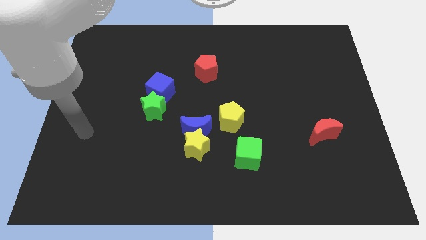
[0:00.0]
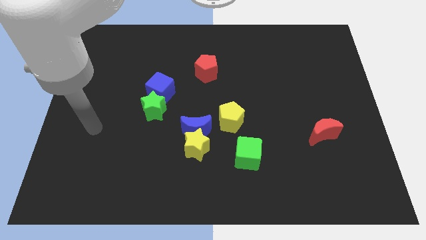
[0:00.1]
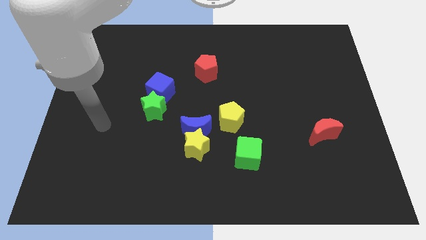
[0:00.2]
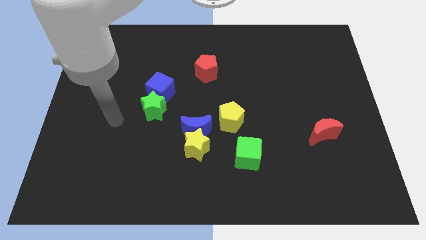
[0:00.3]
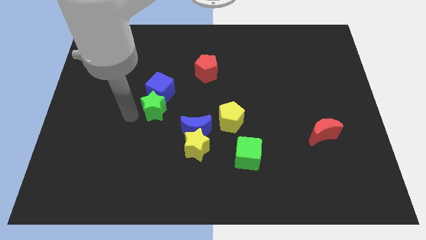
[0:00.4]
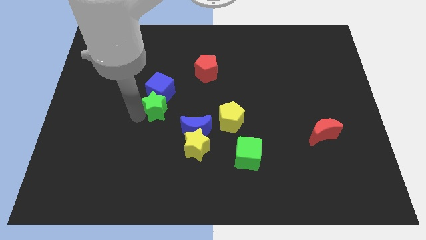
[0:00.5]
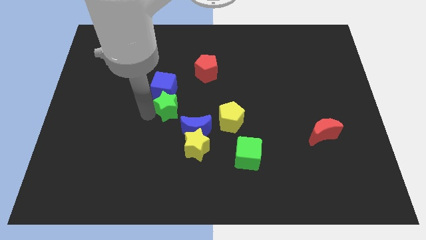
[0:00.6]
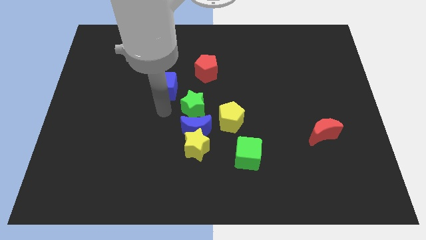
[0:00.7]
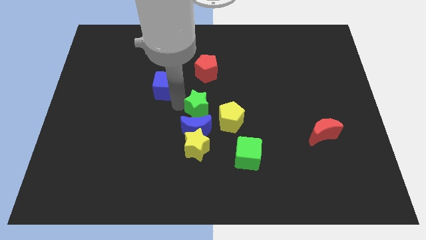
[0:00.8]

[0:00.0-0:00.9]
pull the blue cube apart from the green star

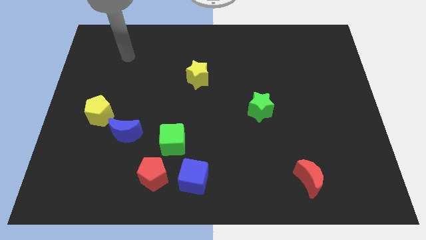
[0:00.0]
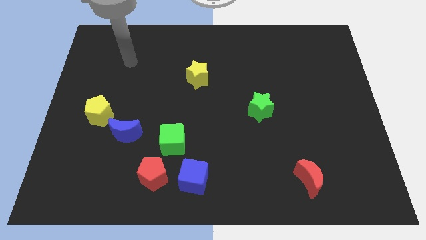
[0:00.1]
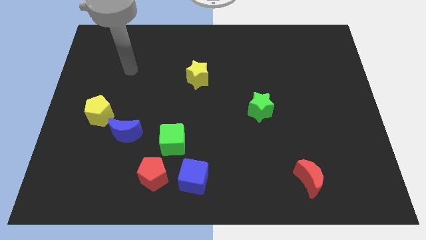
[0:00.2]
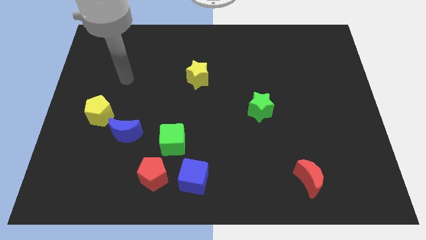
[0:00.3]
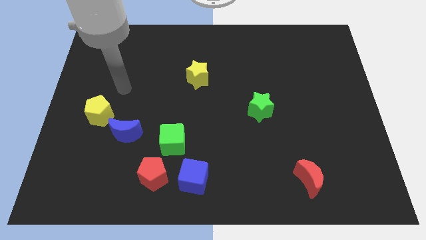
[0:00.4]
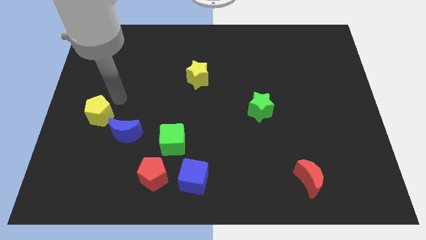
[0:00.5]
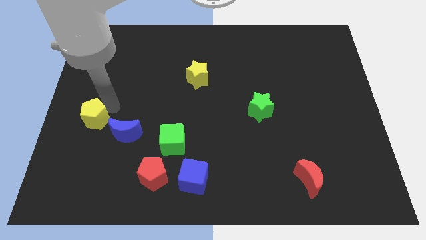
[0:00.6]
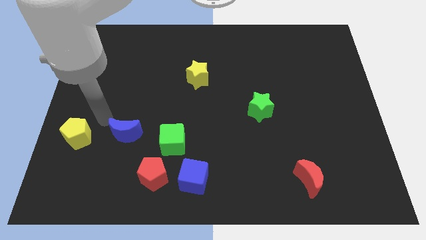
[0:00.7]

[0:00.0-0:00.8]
move the blue moon away from the yellow pentagon

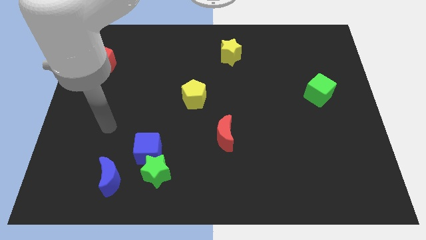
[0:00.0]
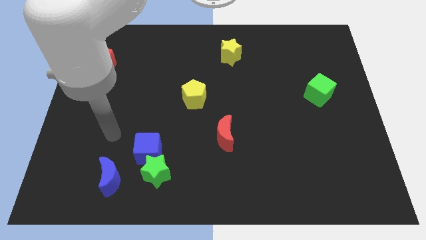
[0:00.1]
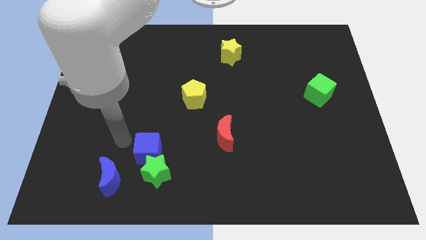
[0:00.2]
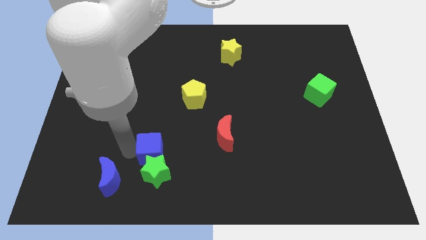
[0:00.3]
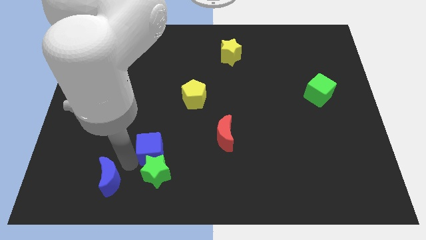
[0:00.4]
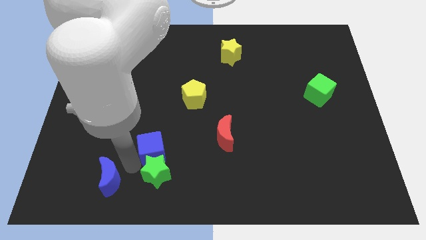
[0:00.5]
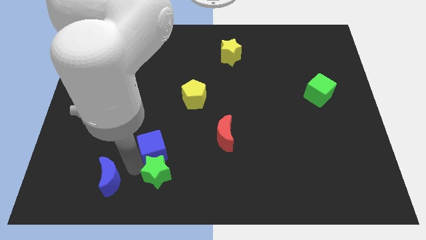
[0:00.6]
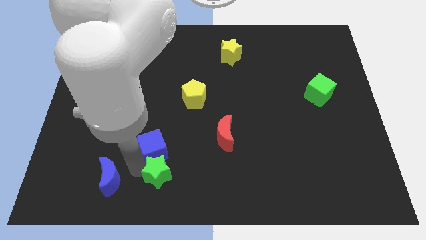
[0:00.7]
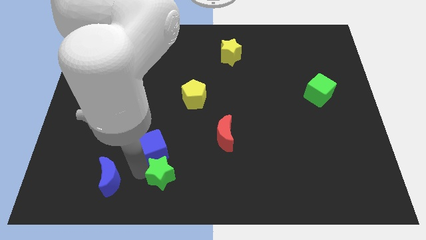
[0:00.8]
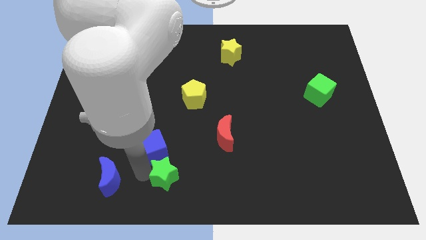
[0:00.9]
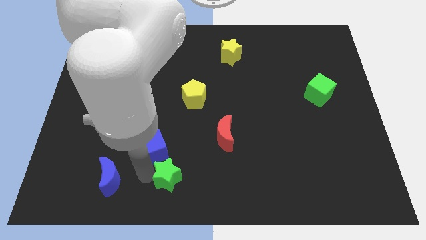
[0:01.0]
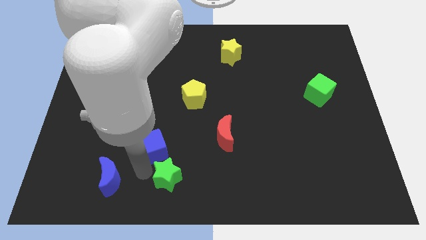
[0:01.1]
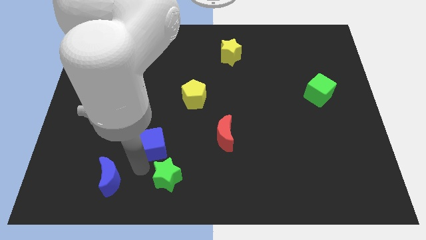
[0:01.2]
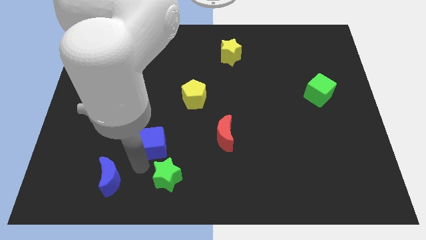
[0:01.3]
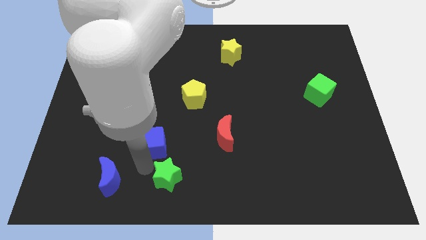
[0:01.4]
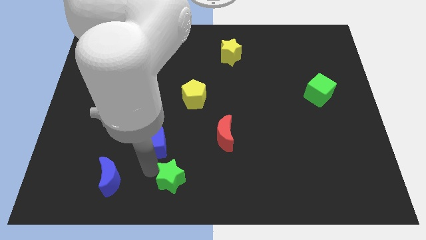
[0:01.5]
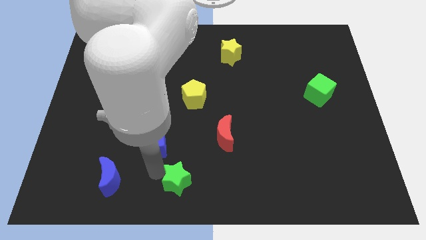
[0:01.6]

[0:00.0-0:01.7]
separate the green star from the blue cube and blue moon

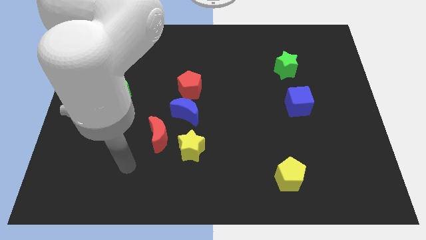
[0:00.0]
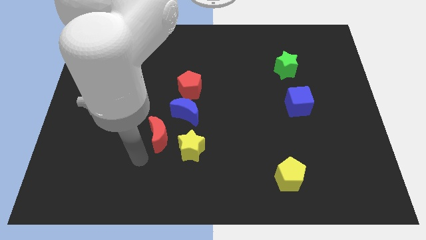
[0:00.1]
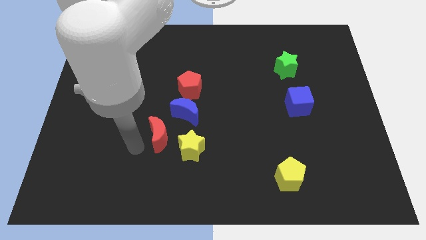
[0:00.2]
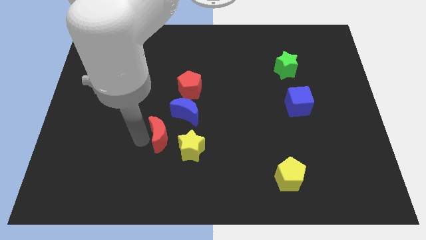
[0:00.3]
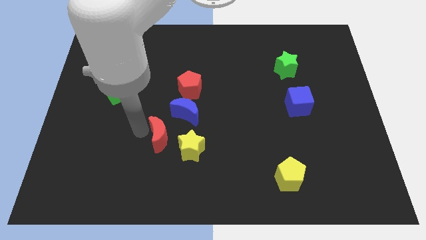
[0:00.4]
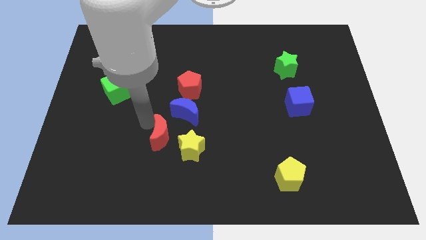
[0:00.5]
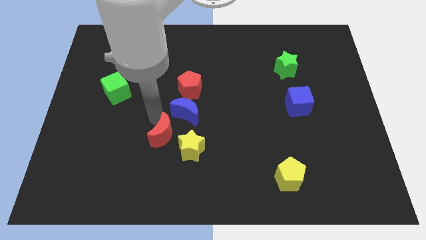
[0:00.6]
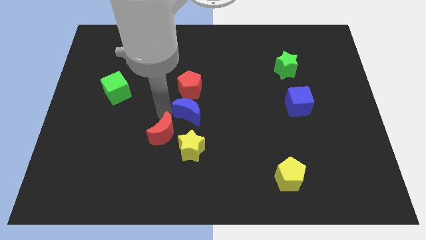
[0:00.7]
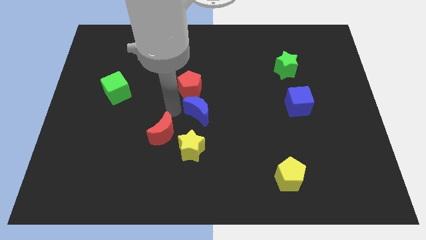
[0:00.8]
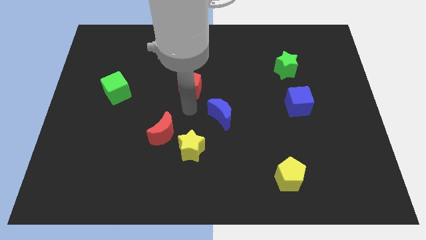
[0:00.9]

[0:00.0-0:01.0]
move the red pentagon away from the blue moon

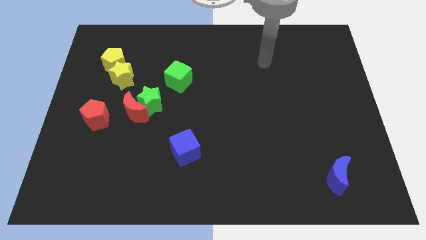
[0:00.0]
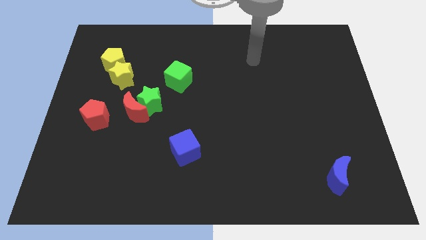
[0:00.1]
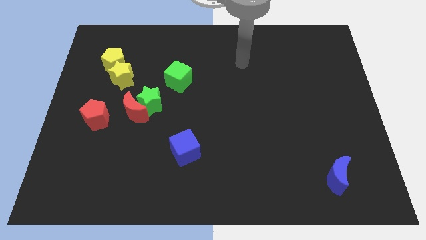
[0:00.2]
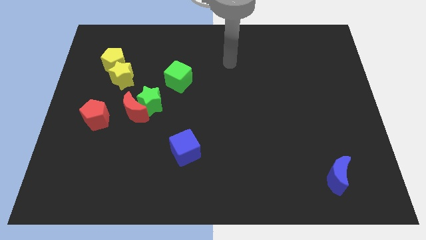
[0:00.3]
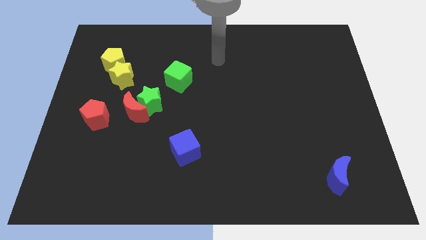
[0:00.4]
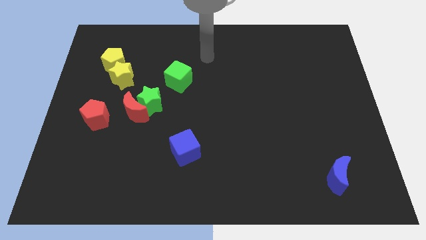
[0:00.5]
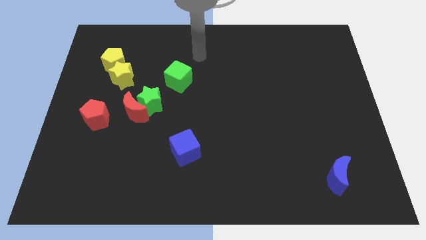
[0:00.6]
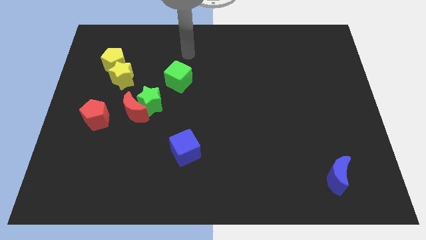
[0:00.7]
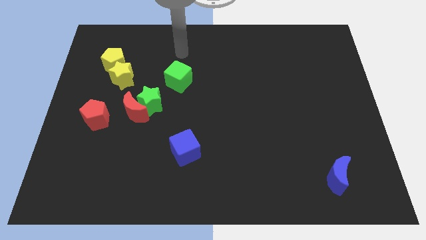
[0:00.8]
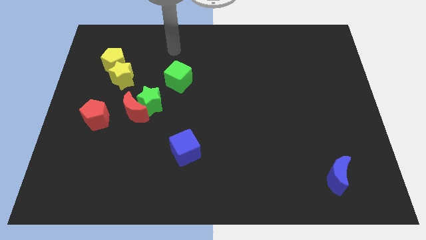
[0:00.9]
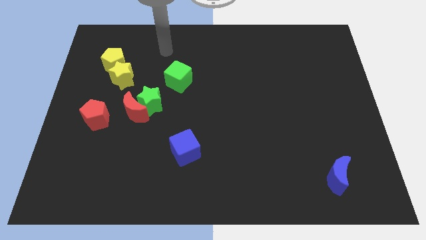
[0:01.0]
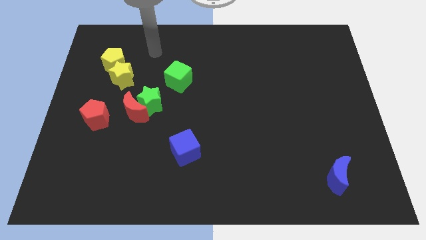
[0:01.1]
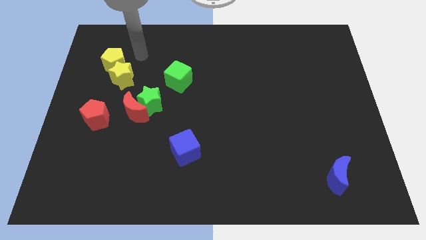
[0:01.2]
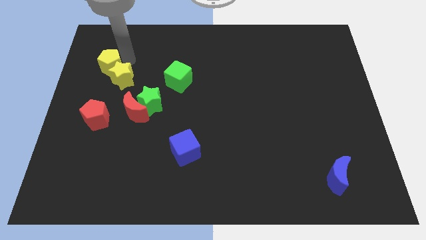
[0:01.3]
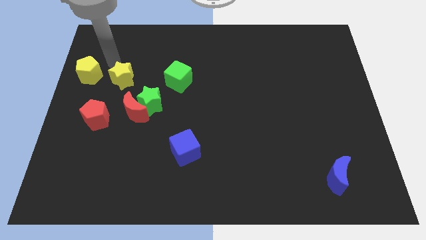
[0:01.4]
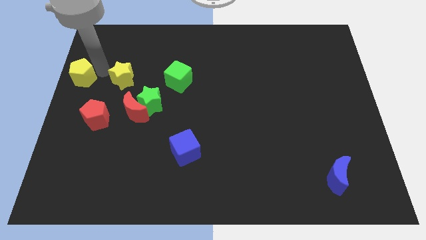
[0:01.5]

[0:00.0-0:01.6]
separate the yellow star from the yellow pentagon

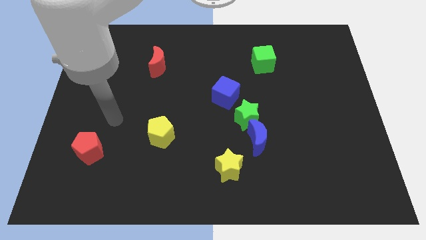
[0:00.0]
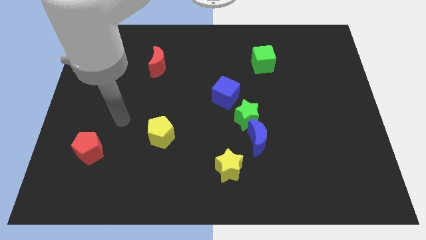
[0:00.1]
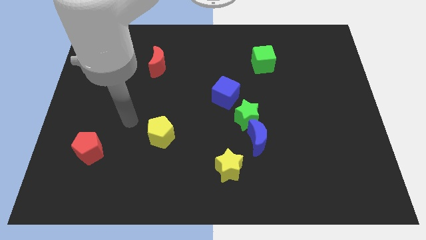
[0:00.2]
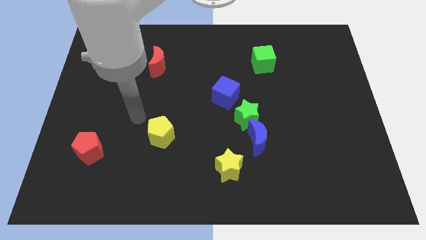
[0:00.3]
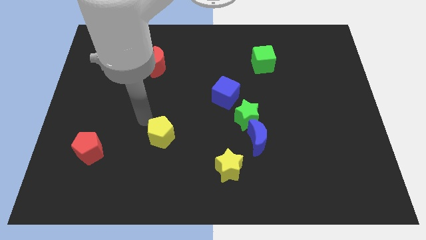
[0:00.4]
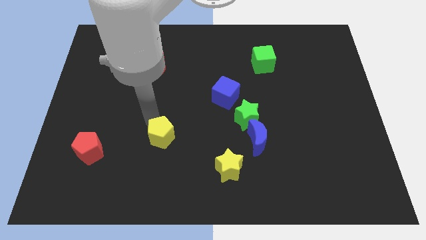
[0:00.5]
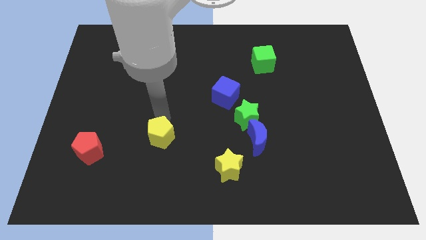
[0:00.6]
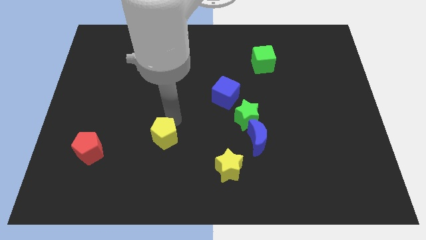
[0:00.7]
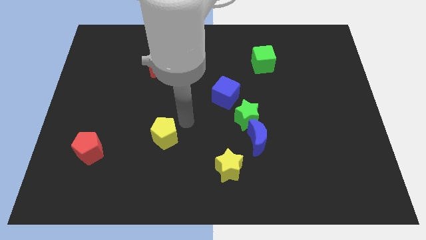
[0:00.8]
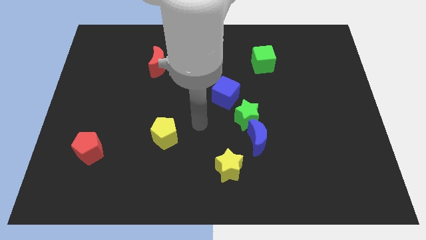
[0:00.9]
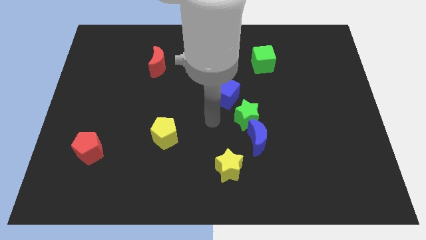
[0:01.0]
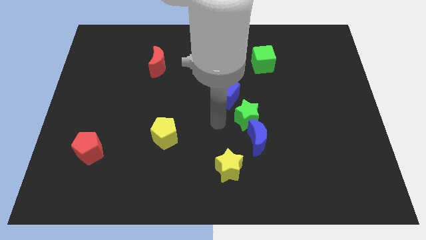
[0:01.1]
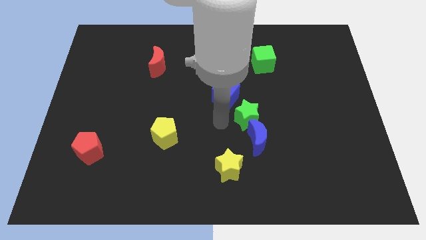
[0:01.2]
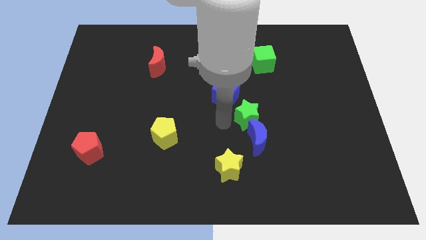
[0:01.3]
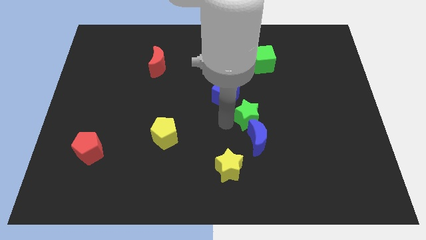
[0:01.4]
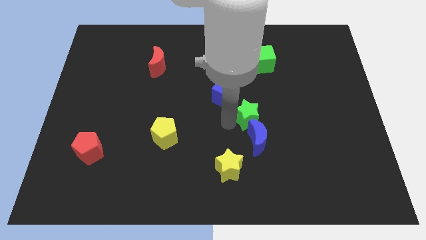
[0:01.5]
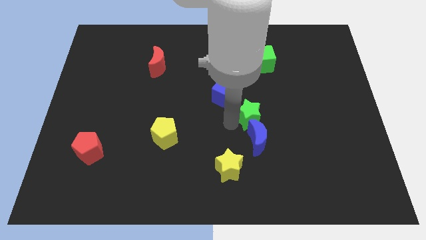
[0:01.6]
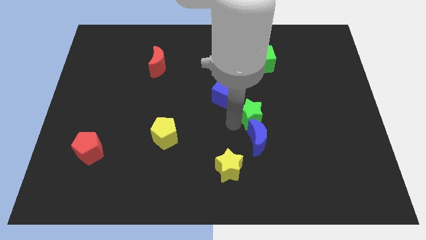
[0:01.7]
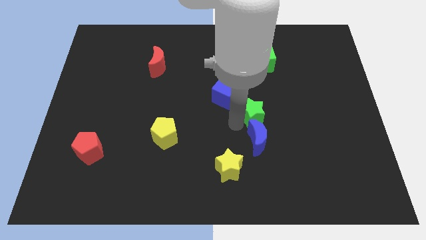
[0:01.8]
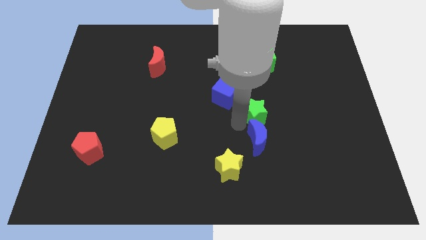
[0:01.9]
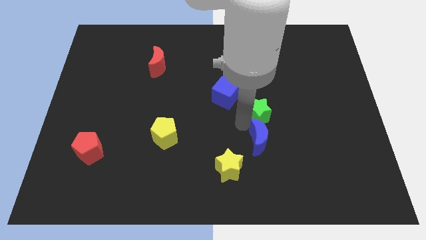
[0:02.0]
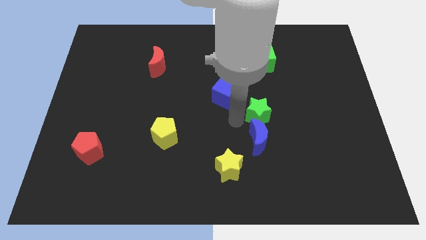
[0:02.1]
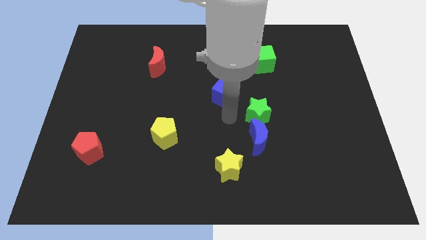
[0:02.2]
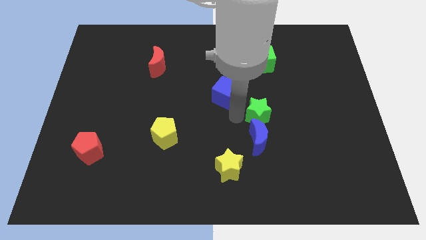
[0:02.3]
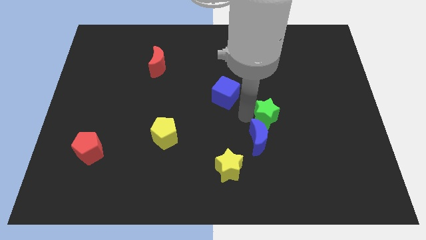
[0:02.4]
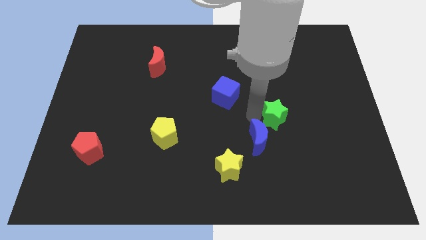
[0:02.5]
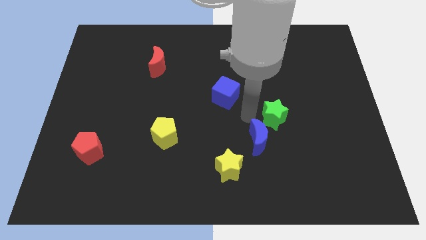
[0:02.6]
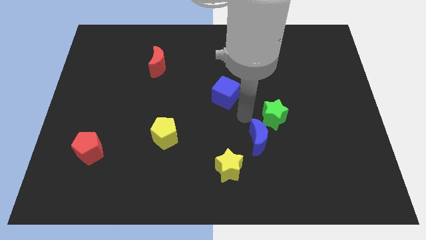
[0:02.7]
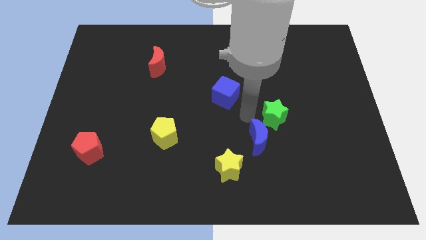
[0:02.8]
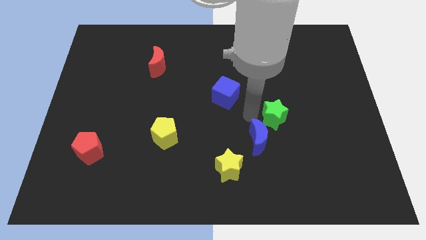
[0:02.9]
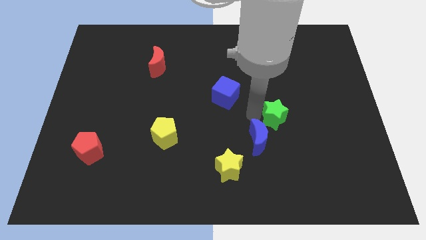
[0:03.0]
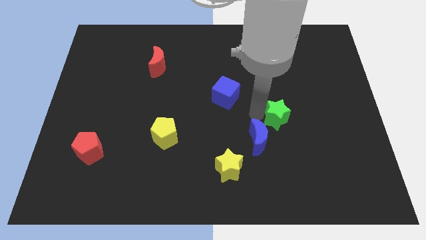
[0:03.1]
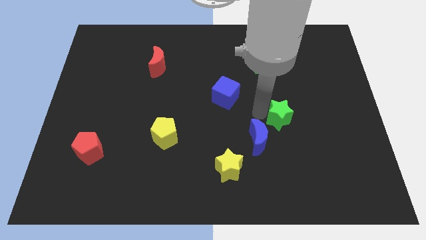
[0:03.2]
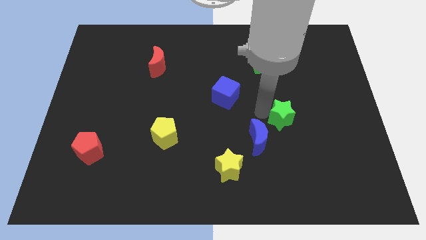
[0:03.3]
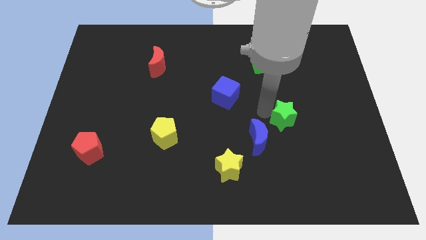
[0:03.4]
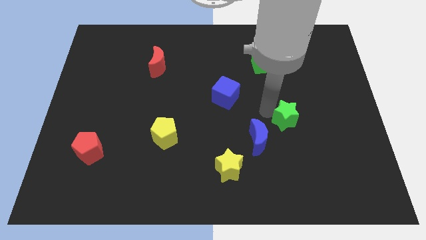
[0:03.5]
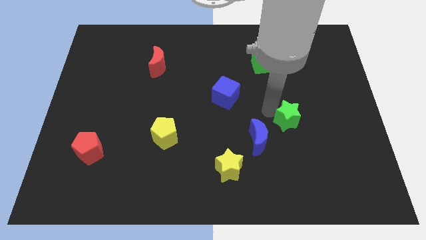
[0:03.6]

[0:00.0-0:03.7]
pull the green star apart from the blue moon and blue cube
